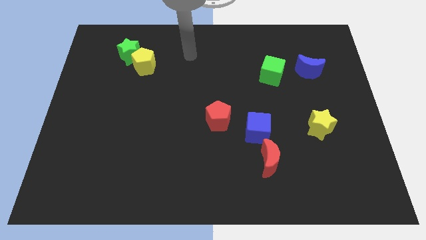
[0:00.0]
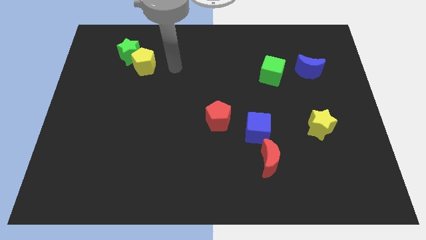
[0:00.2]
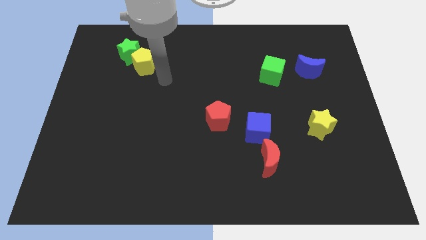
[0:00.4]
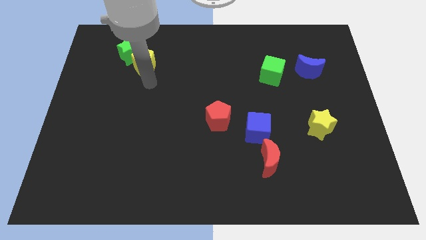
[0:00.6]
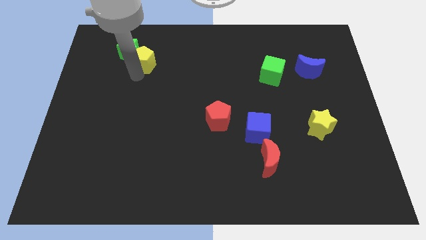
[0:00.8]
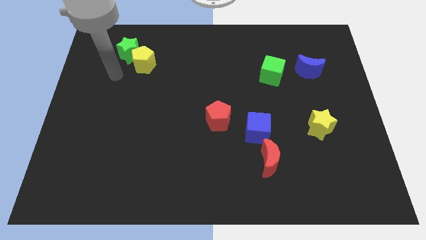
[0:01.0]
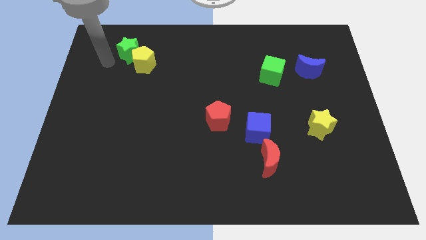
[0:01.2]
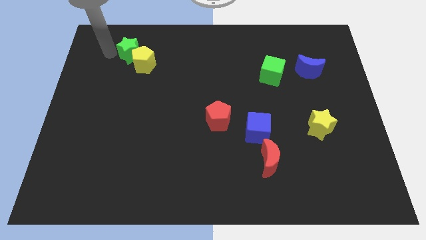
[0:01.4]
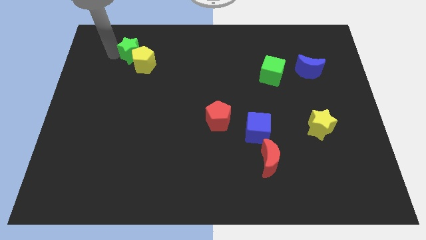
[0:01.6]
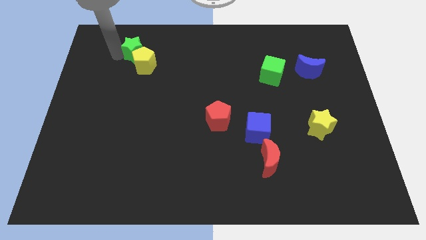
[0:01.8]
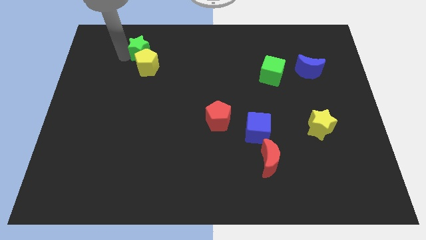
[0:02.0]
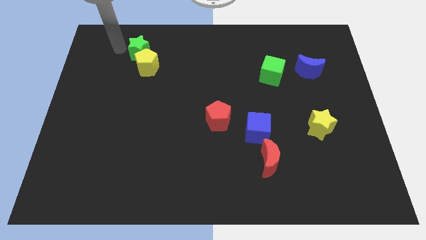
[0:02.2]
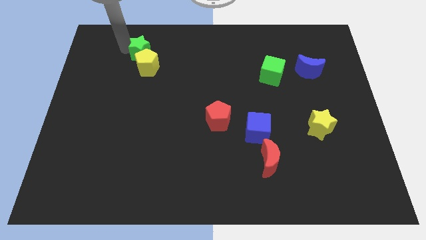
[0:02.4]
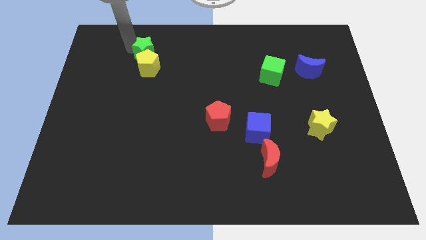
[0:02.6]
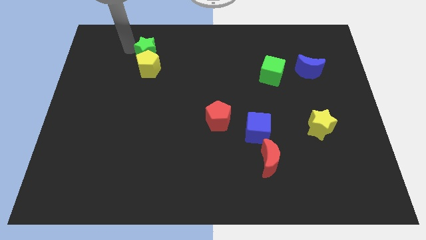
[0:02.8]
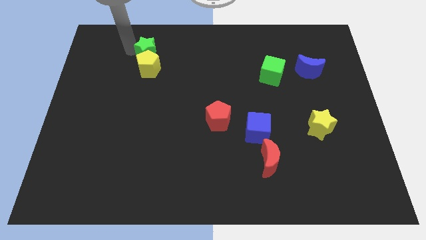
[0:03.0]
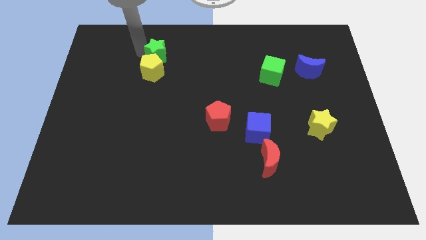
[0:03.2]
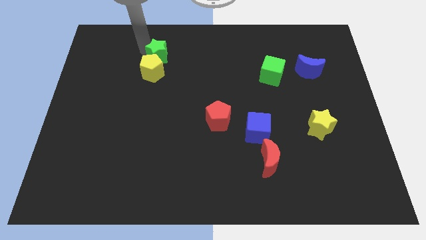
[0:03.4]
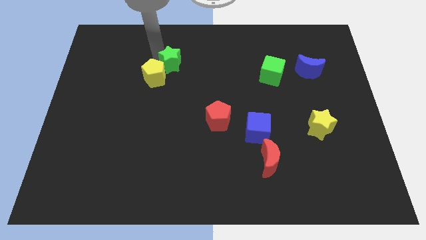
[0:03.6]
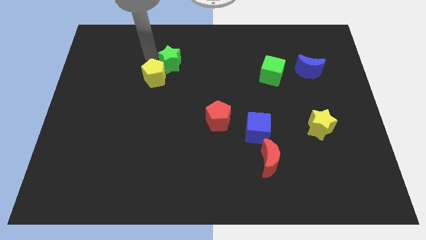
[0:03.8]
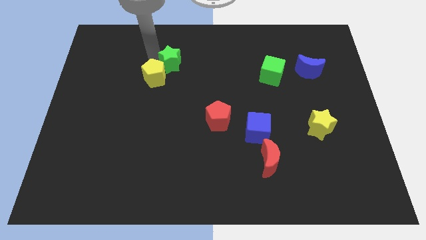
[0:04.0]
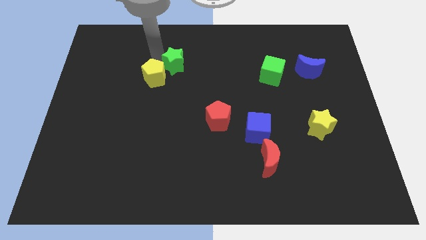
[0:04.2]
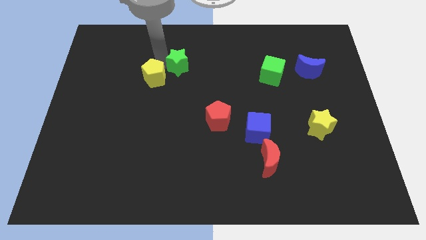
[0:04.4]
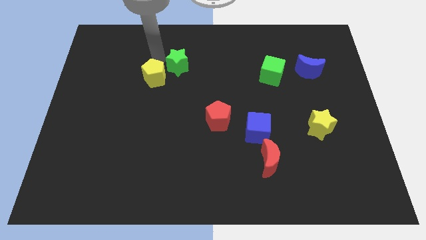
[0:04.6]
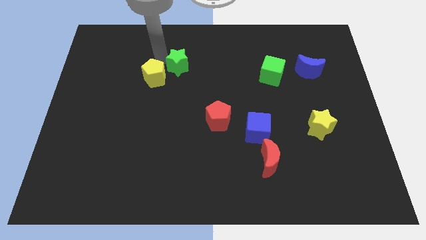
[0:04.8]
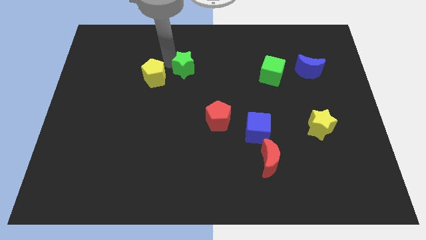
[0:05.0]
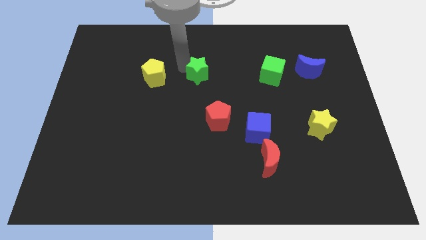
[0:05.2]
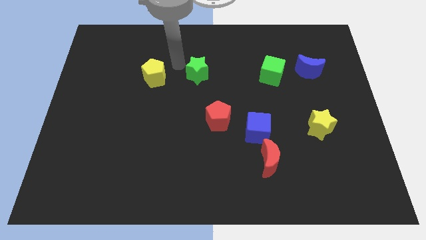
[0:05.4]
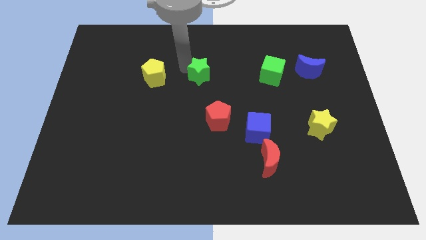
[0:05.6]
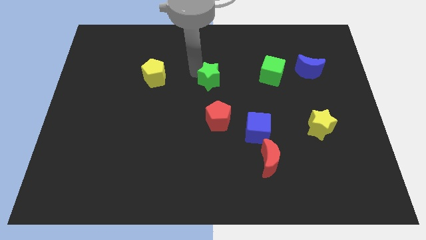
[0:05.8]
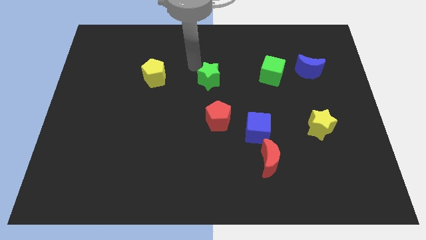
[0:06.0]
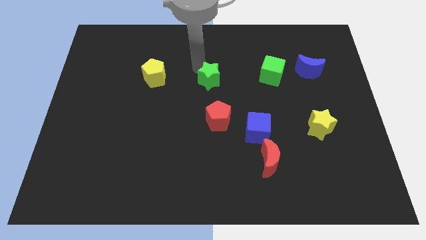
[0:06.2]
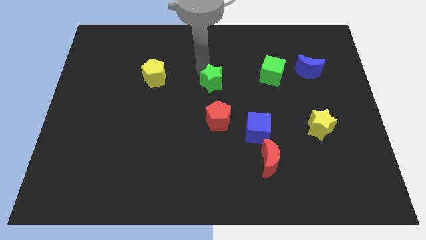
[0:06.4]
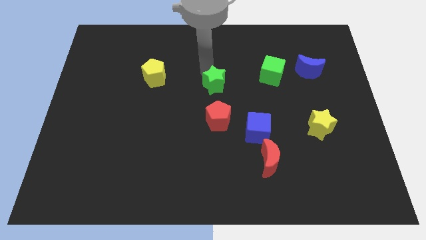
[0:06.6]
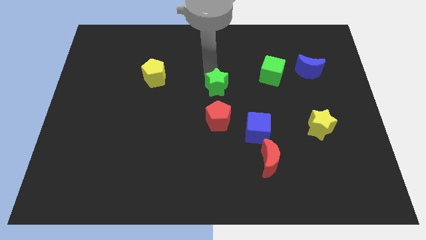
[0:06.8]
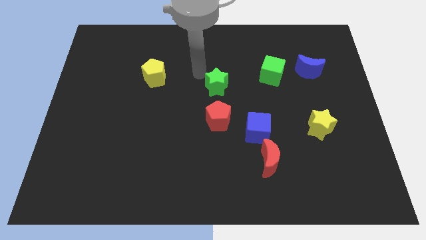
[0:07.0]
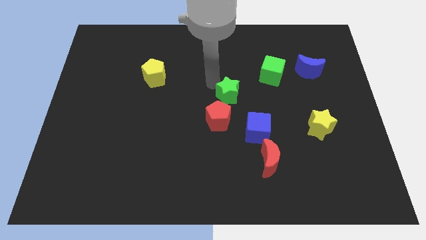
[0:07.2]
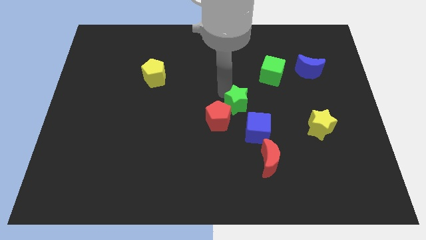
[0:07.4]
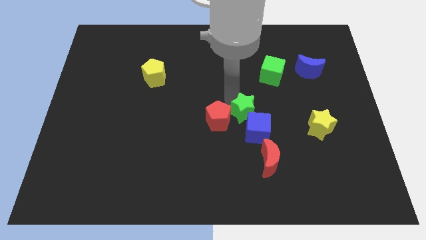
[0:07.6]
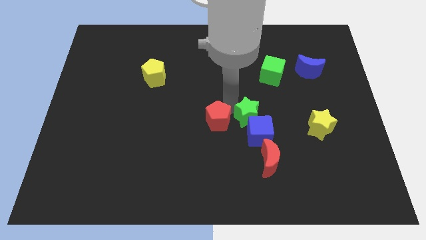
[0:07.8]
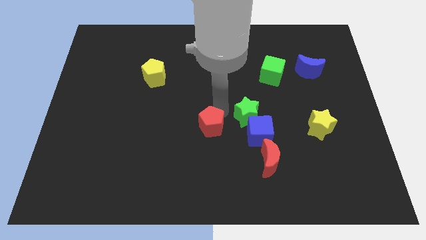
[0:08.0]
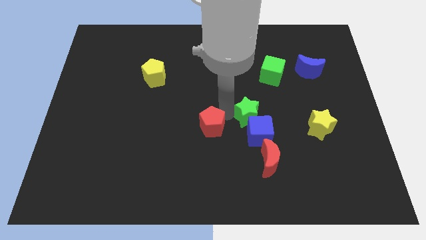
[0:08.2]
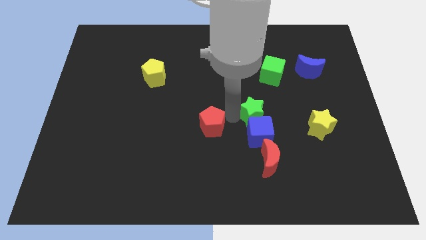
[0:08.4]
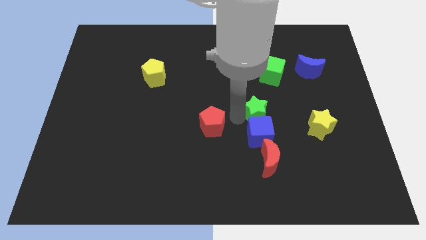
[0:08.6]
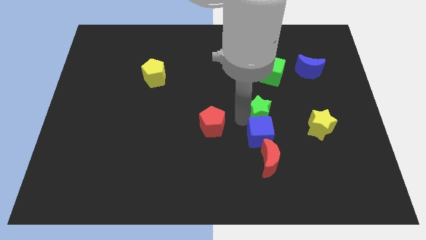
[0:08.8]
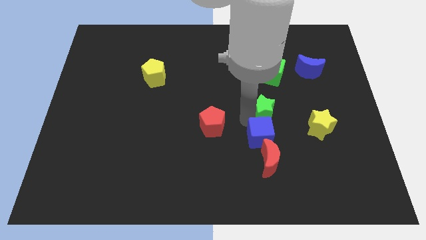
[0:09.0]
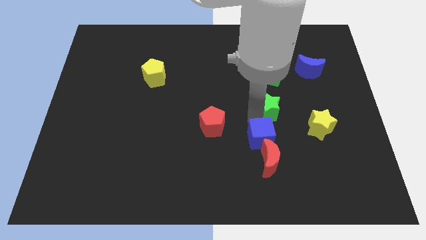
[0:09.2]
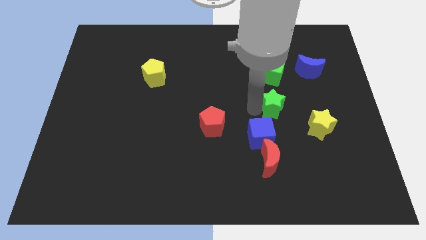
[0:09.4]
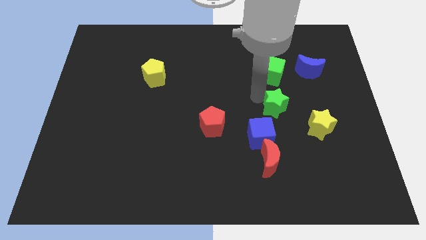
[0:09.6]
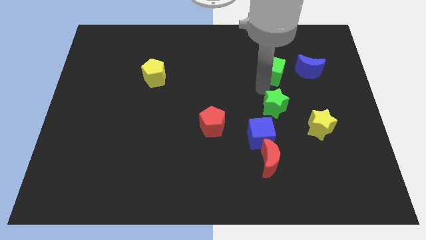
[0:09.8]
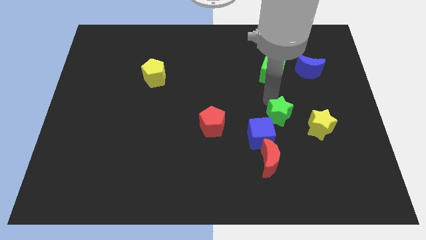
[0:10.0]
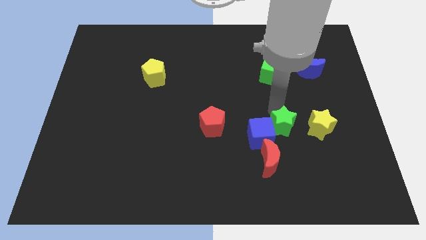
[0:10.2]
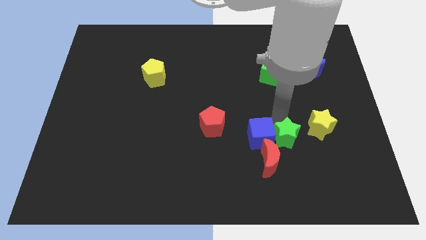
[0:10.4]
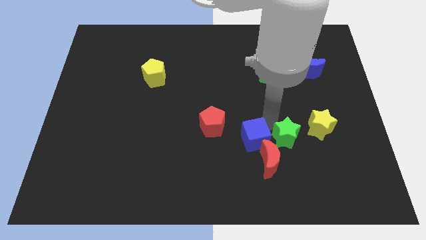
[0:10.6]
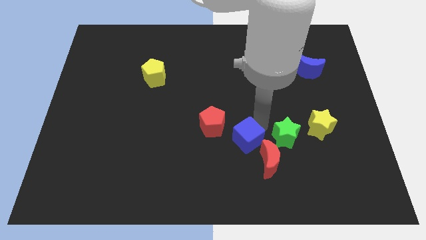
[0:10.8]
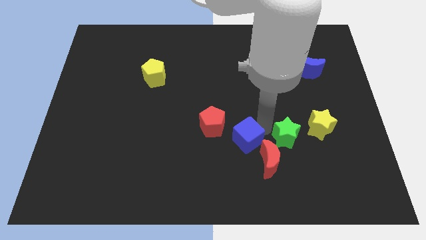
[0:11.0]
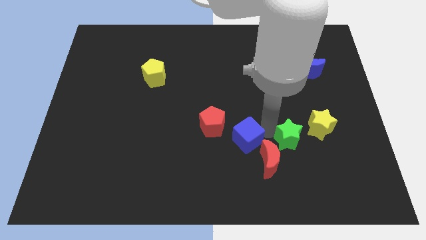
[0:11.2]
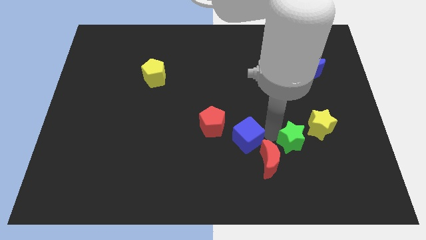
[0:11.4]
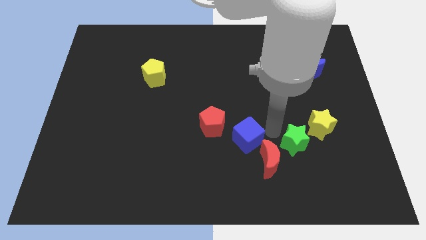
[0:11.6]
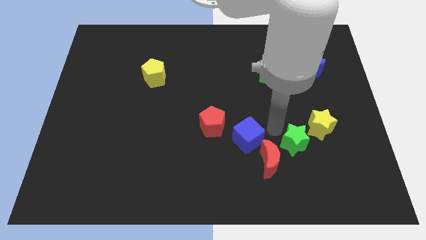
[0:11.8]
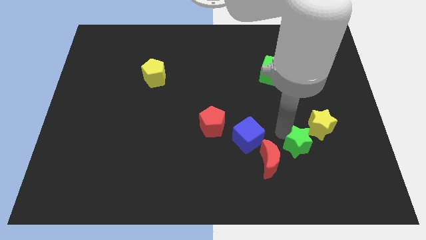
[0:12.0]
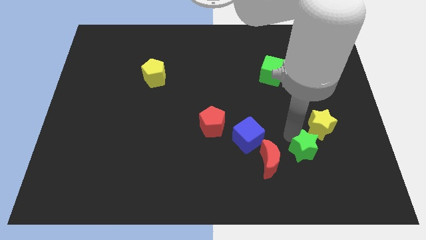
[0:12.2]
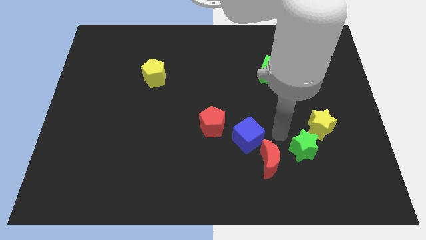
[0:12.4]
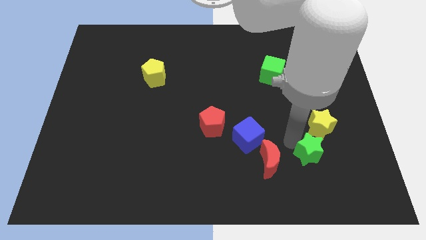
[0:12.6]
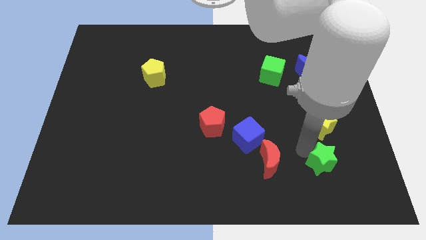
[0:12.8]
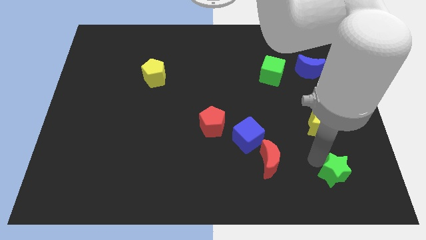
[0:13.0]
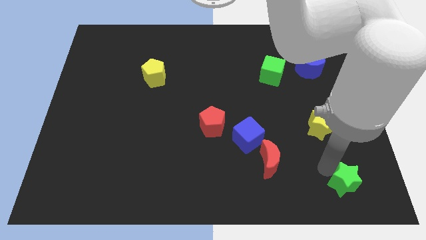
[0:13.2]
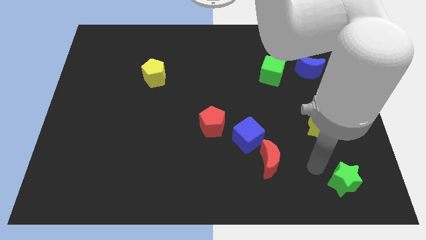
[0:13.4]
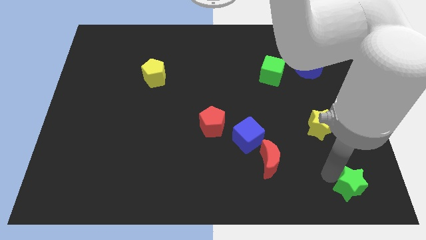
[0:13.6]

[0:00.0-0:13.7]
push the green star to the lower right corner
